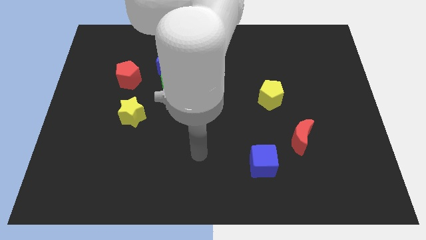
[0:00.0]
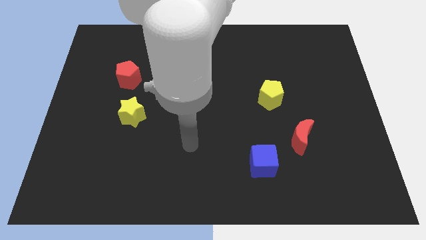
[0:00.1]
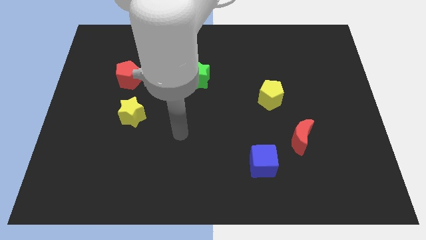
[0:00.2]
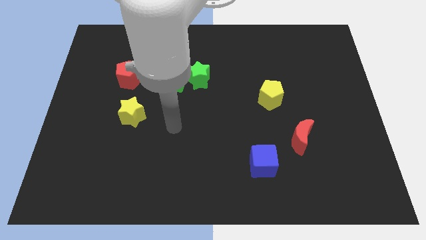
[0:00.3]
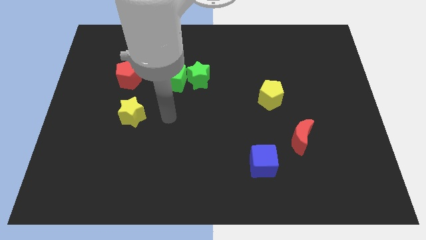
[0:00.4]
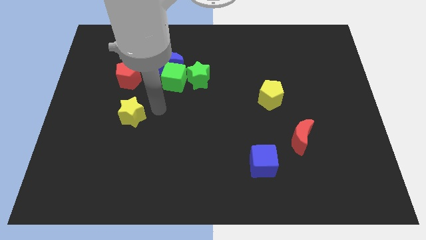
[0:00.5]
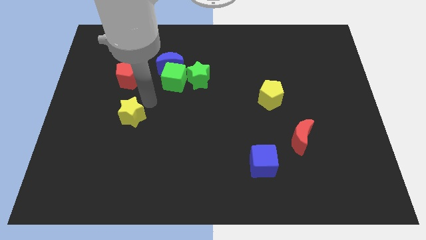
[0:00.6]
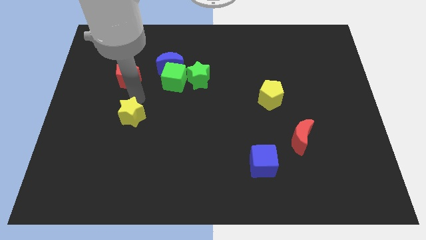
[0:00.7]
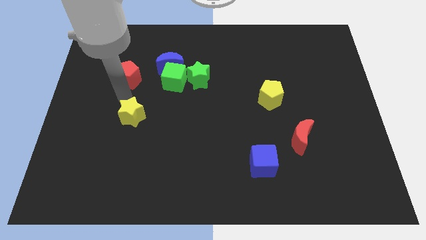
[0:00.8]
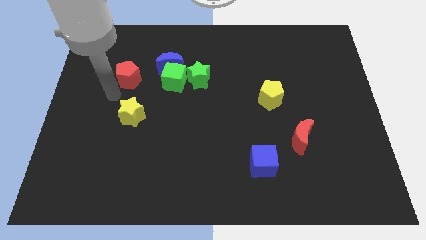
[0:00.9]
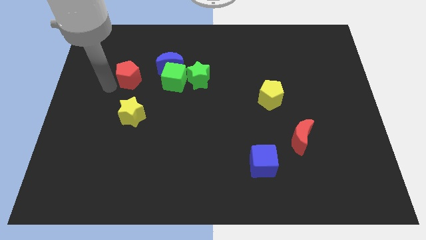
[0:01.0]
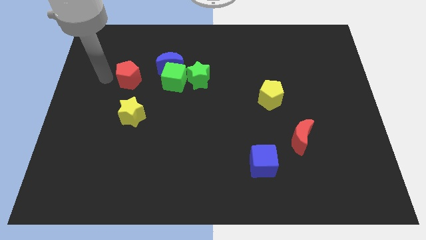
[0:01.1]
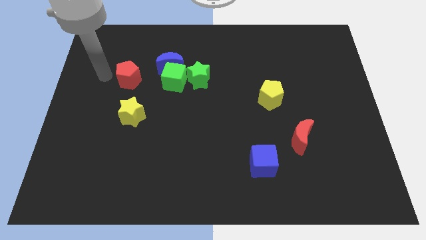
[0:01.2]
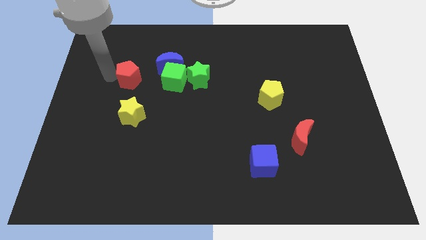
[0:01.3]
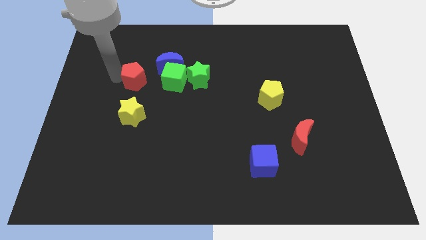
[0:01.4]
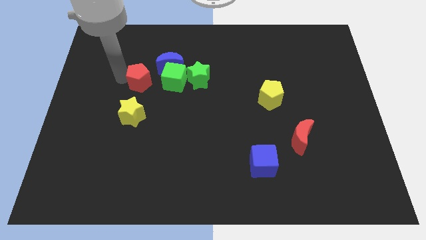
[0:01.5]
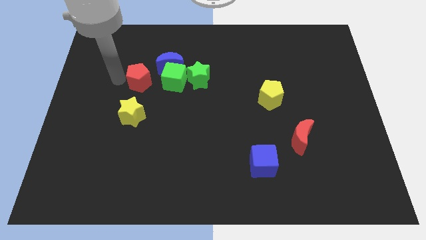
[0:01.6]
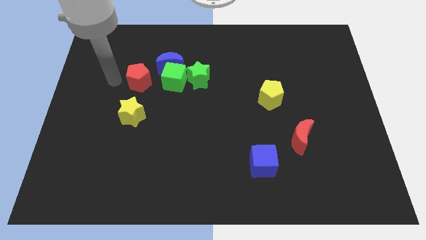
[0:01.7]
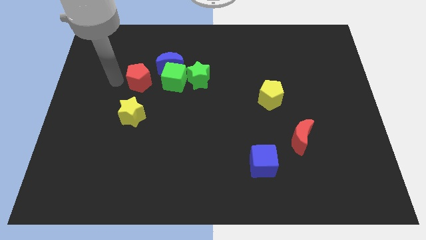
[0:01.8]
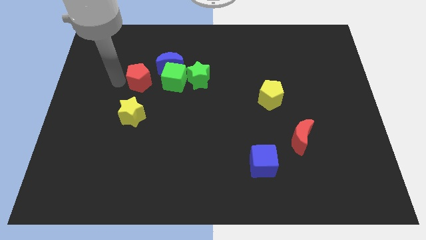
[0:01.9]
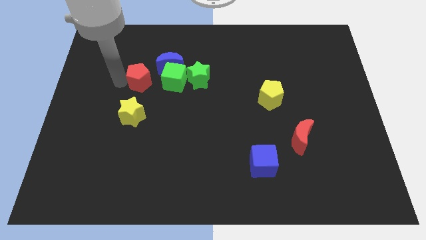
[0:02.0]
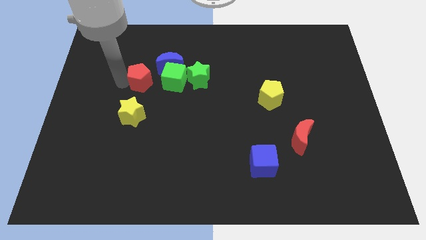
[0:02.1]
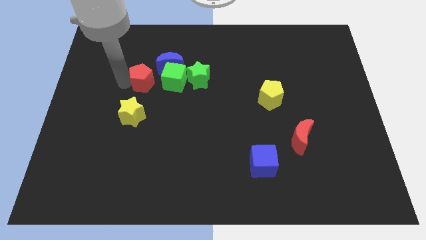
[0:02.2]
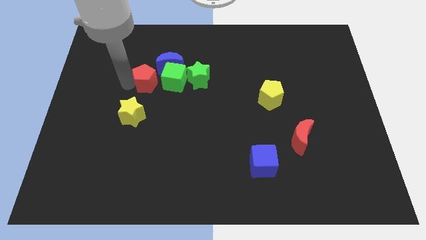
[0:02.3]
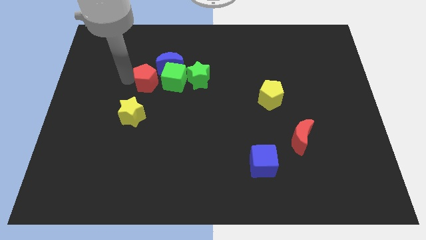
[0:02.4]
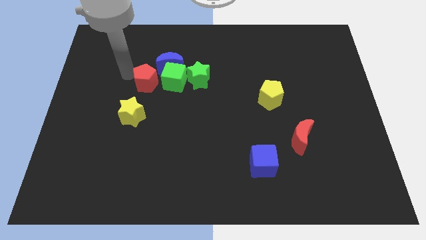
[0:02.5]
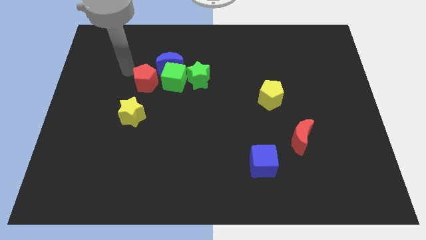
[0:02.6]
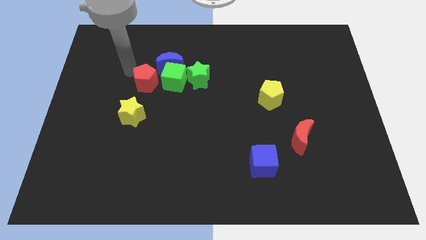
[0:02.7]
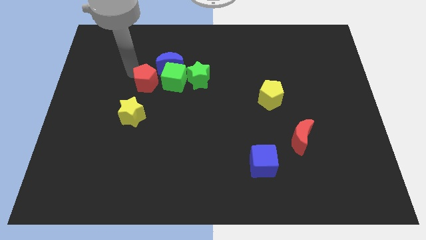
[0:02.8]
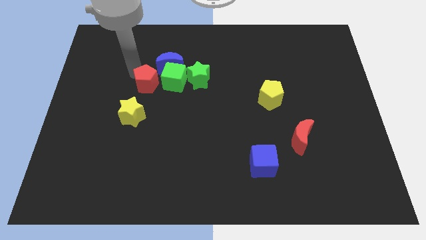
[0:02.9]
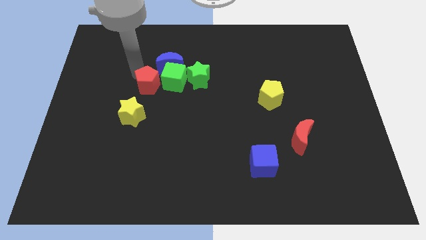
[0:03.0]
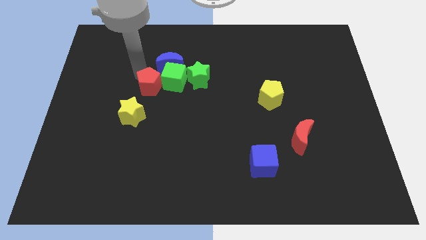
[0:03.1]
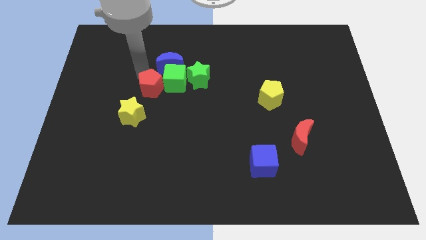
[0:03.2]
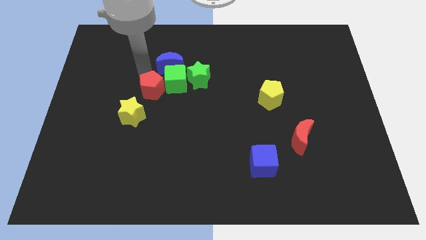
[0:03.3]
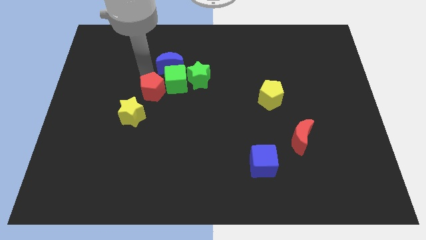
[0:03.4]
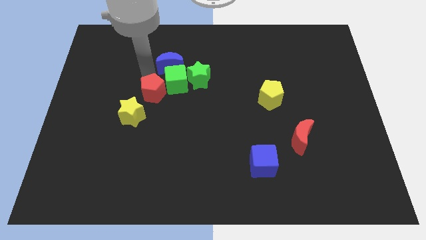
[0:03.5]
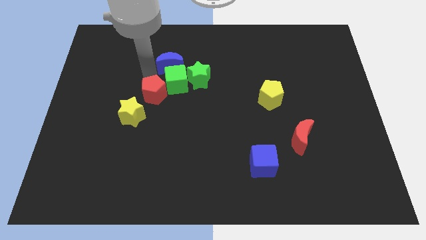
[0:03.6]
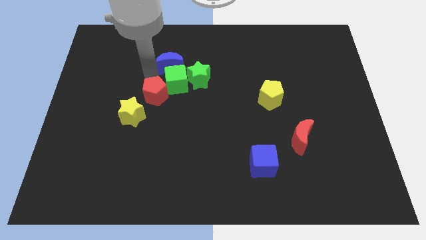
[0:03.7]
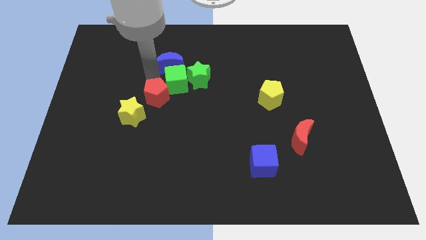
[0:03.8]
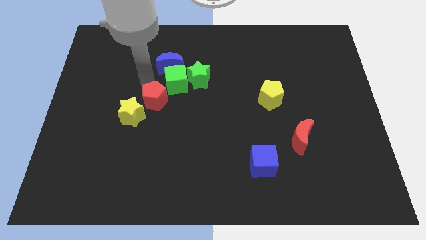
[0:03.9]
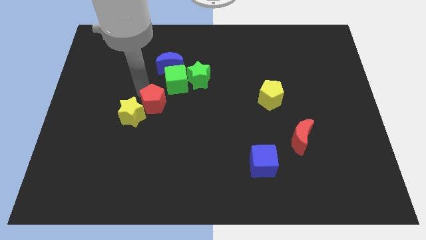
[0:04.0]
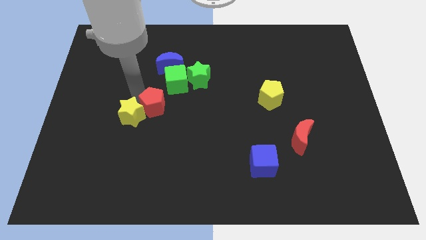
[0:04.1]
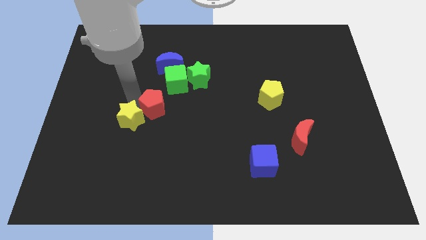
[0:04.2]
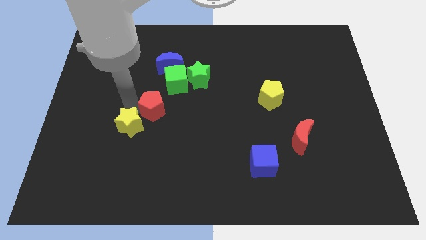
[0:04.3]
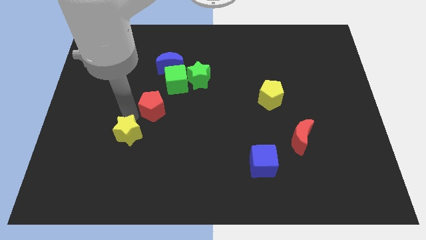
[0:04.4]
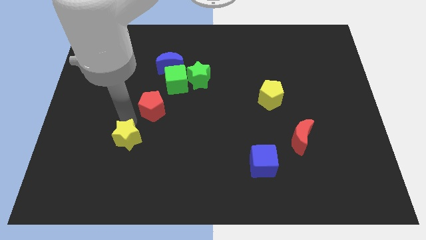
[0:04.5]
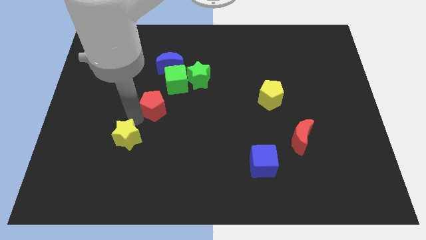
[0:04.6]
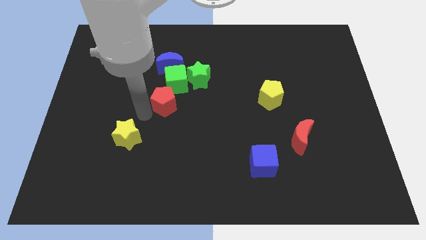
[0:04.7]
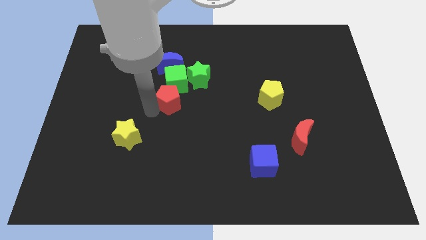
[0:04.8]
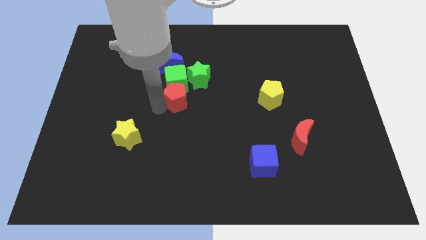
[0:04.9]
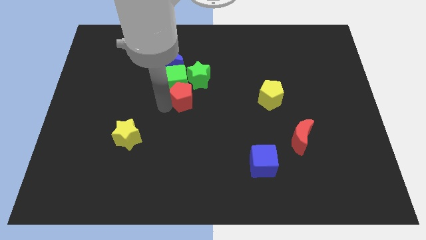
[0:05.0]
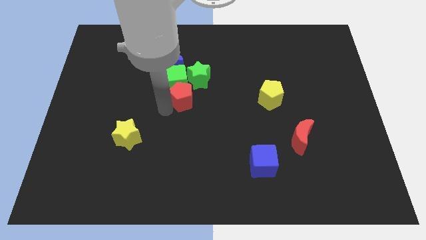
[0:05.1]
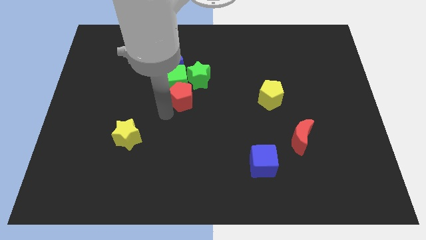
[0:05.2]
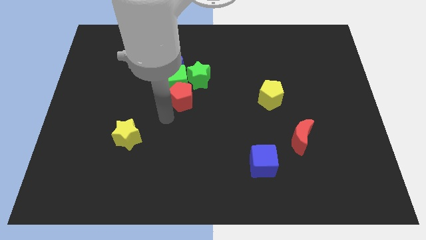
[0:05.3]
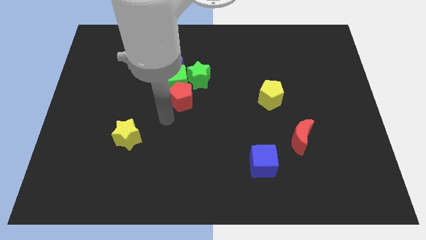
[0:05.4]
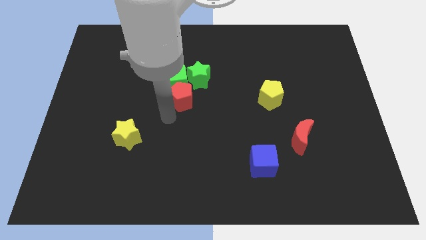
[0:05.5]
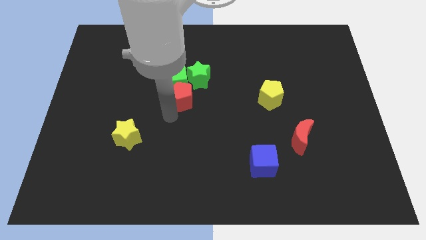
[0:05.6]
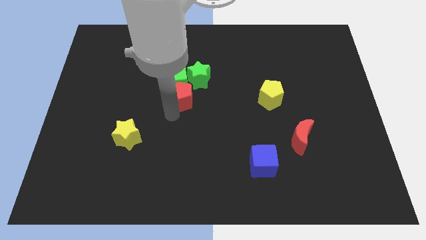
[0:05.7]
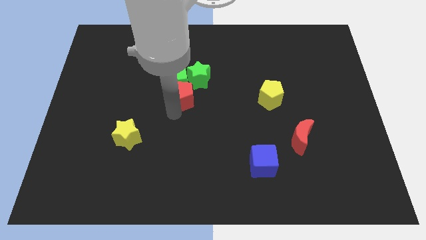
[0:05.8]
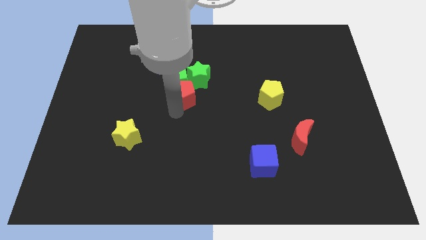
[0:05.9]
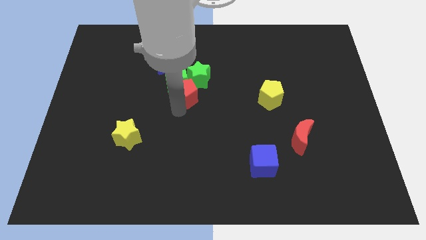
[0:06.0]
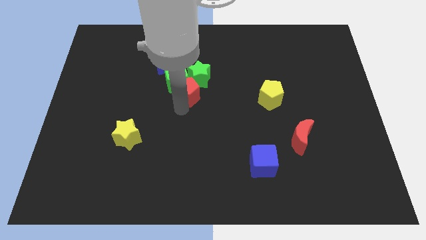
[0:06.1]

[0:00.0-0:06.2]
slide the red pentagon close to the green star

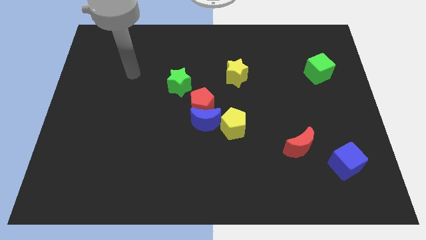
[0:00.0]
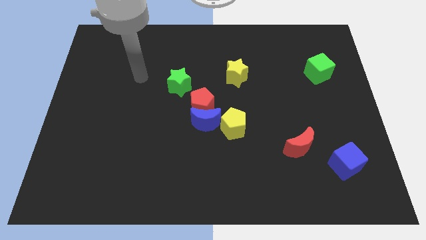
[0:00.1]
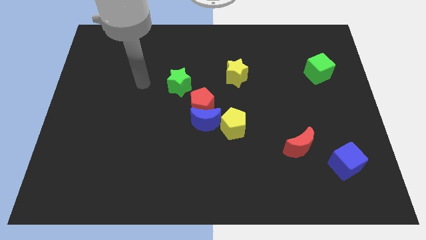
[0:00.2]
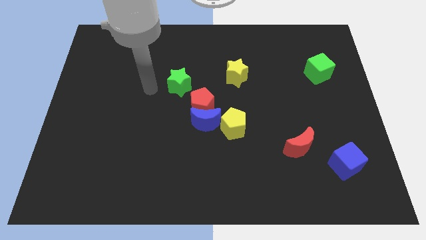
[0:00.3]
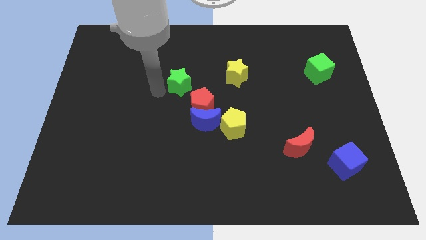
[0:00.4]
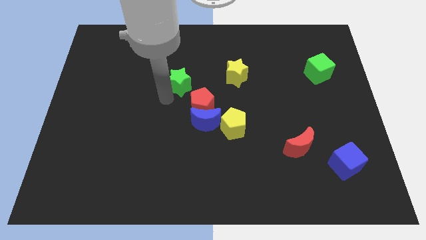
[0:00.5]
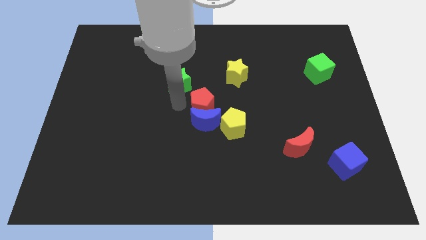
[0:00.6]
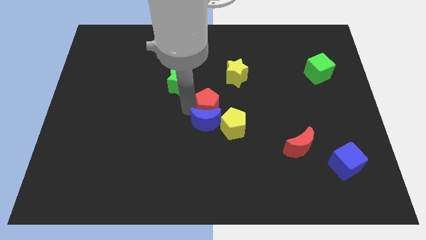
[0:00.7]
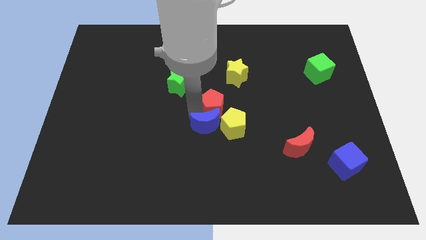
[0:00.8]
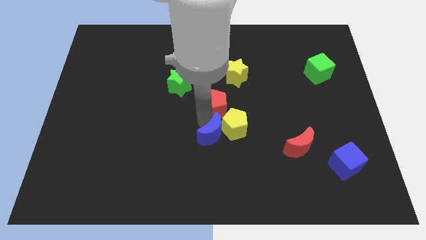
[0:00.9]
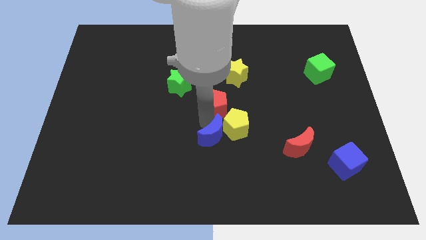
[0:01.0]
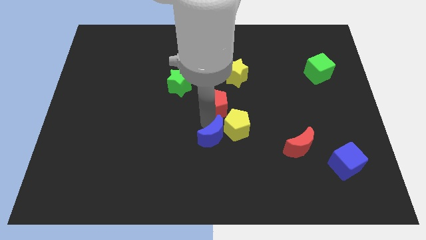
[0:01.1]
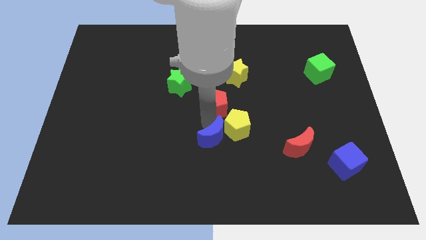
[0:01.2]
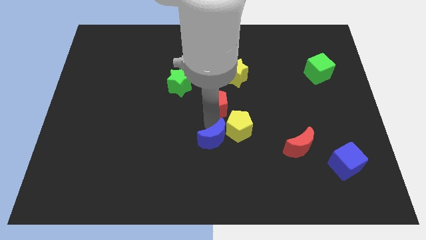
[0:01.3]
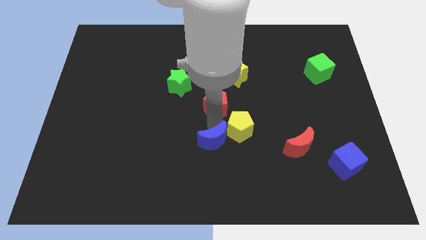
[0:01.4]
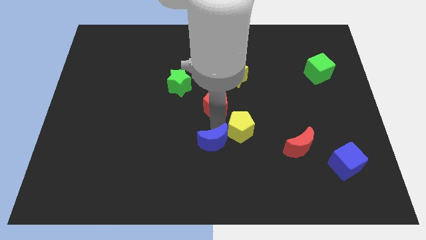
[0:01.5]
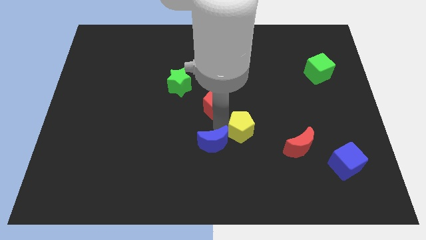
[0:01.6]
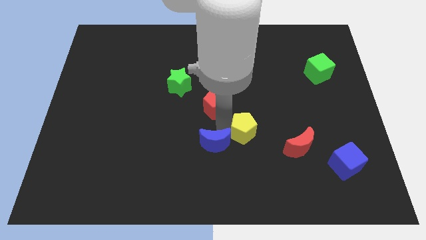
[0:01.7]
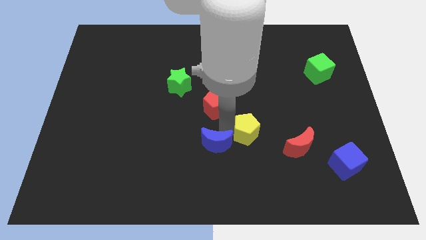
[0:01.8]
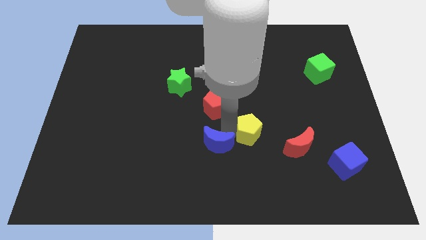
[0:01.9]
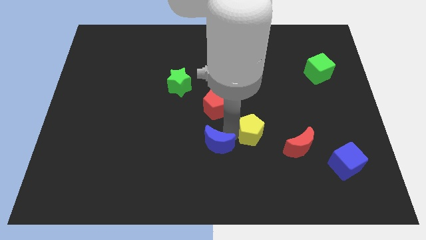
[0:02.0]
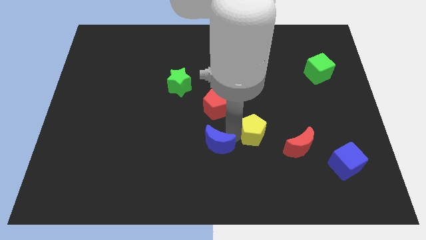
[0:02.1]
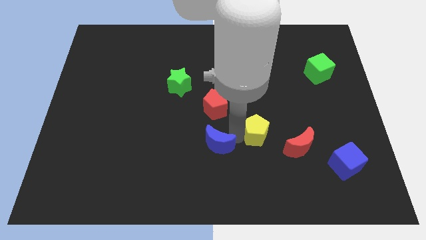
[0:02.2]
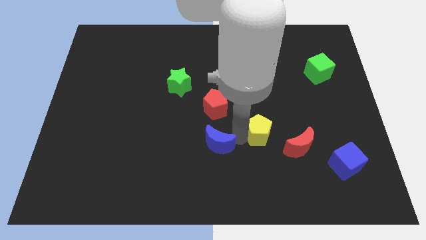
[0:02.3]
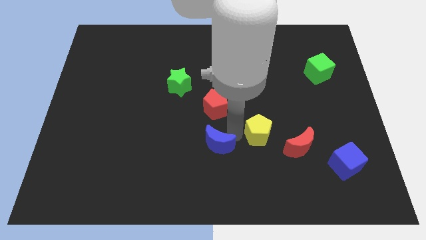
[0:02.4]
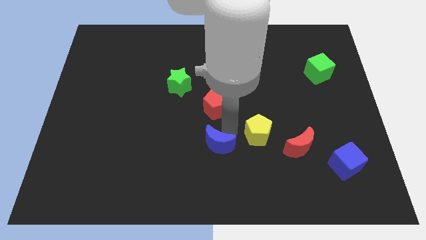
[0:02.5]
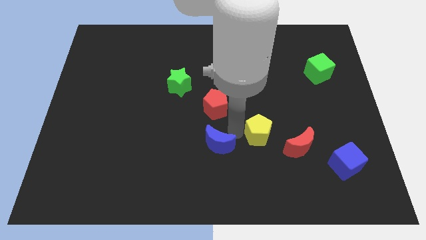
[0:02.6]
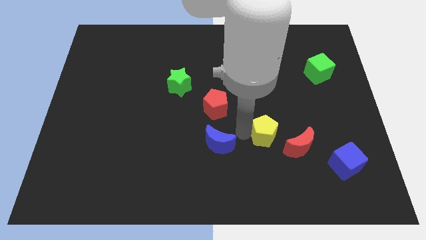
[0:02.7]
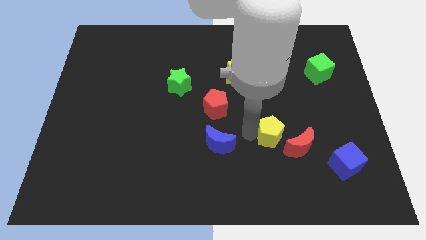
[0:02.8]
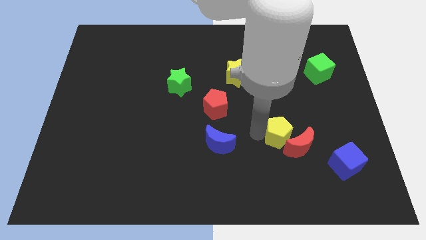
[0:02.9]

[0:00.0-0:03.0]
move the yellow pentagon next to the red moon
